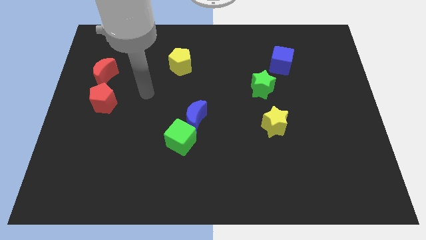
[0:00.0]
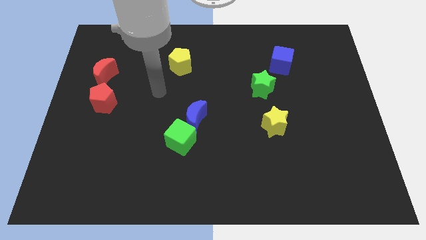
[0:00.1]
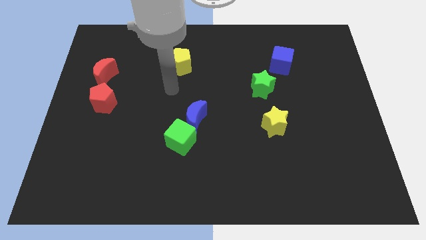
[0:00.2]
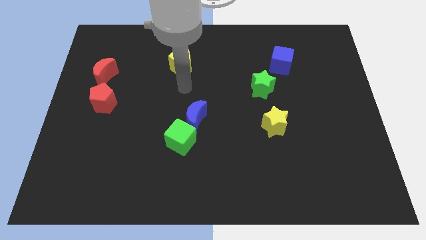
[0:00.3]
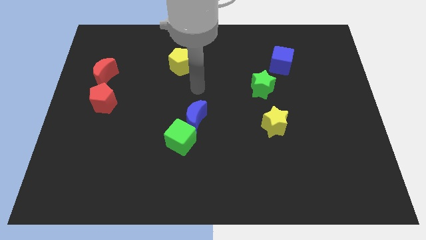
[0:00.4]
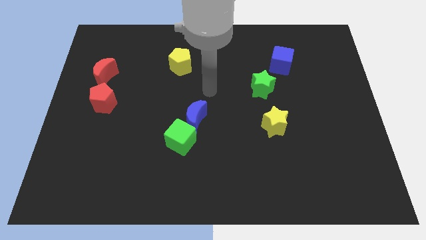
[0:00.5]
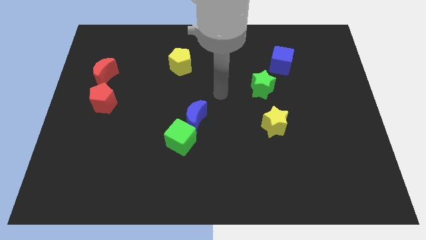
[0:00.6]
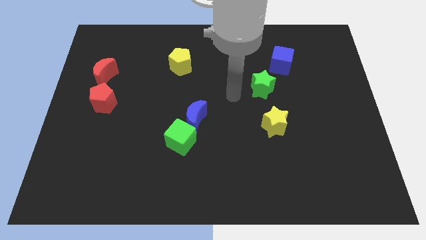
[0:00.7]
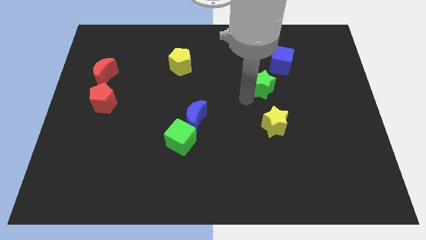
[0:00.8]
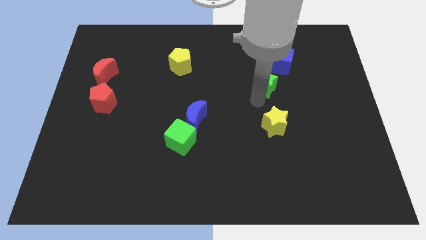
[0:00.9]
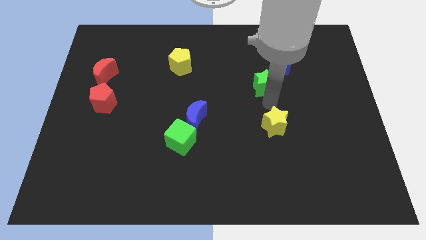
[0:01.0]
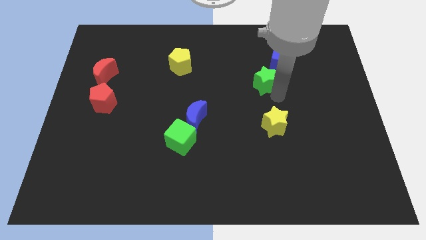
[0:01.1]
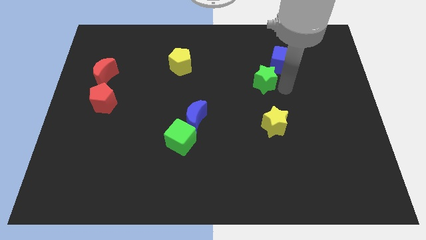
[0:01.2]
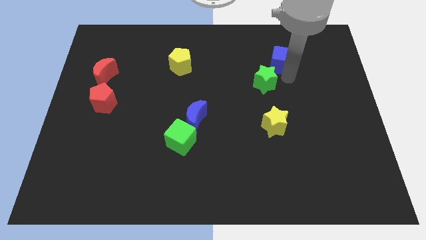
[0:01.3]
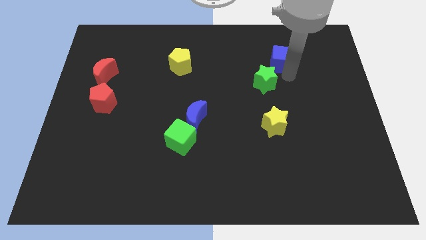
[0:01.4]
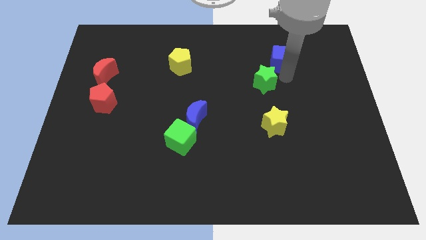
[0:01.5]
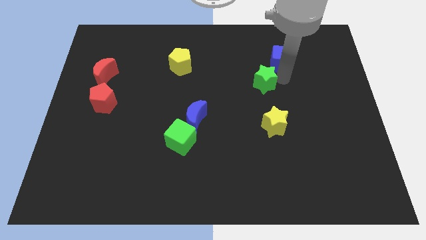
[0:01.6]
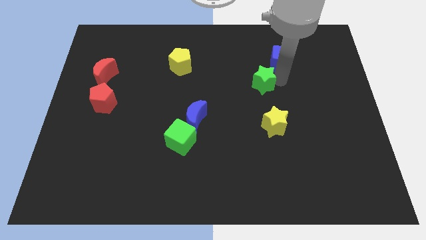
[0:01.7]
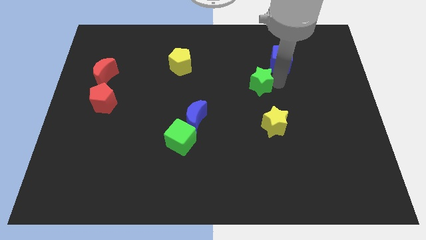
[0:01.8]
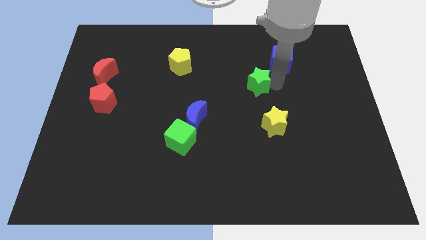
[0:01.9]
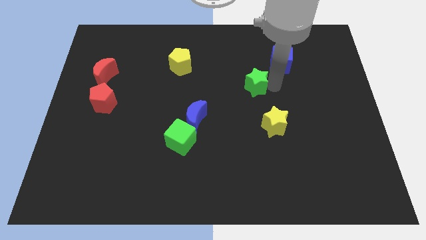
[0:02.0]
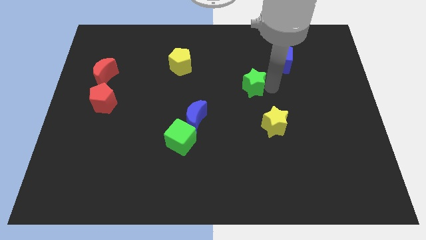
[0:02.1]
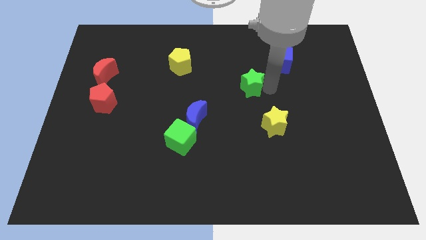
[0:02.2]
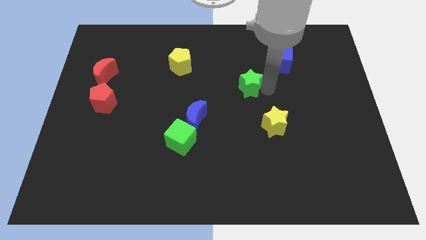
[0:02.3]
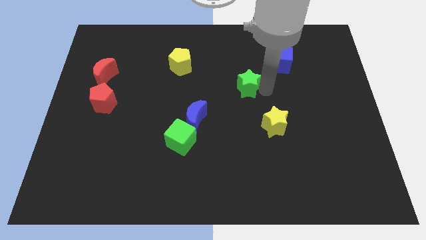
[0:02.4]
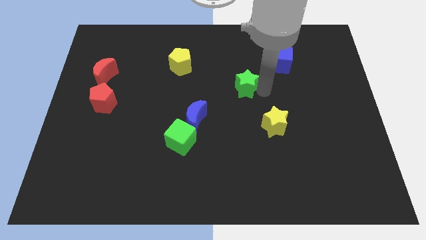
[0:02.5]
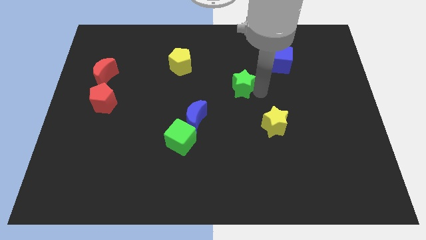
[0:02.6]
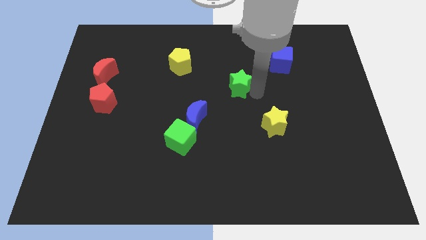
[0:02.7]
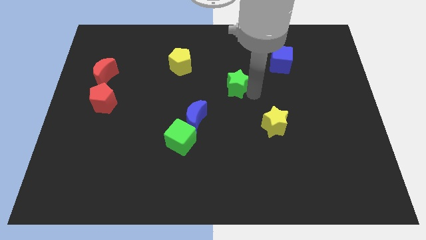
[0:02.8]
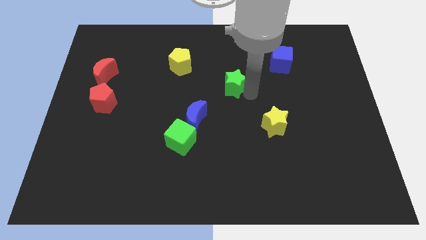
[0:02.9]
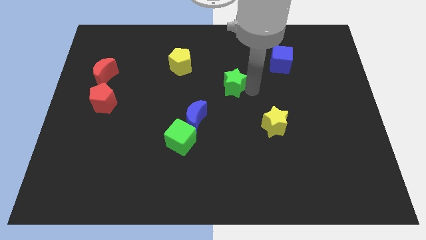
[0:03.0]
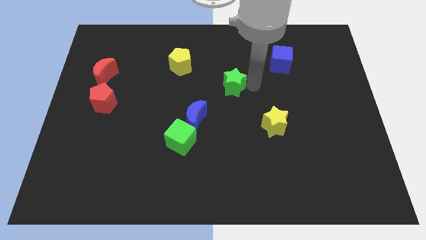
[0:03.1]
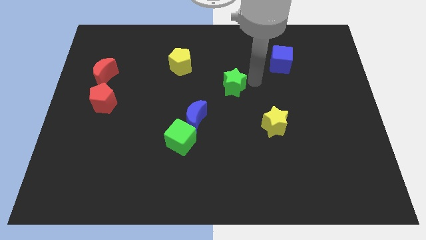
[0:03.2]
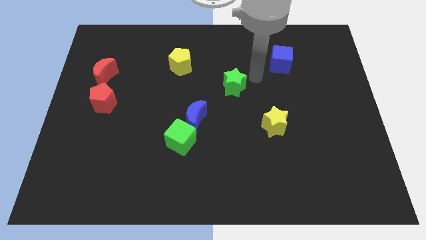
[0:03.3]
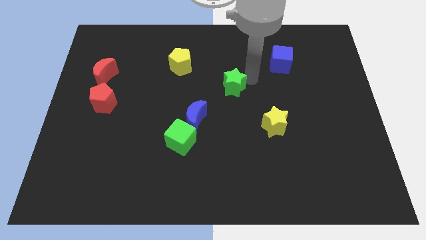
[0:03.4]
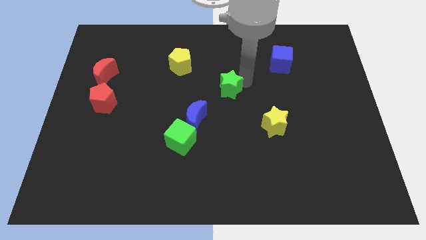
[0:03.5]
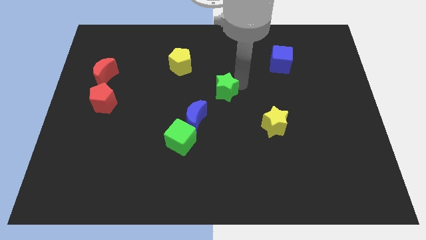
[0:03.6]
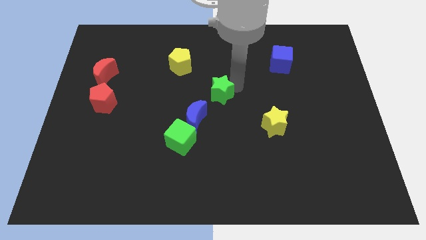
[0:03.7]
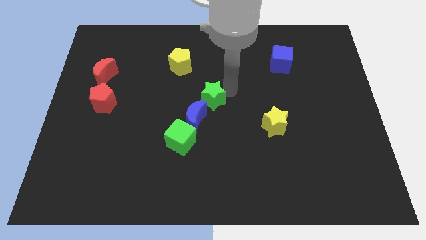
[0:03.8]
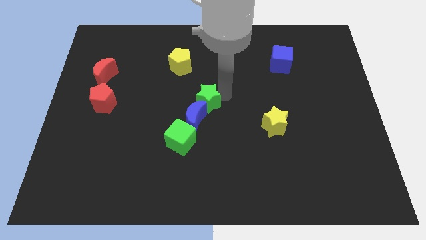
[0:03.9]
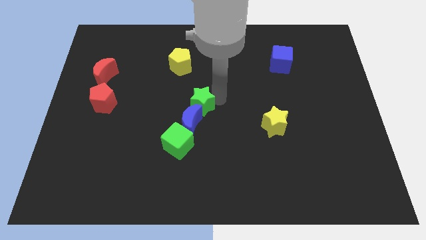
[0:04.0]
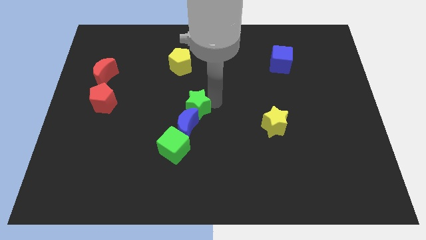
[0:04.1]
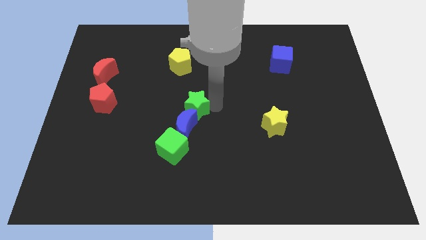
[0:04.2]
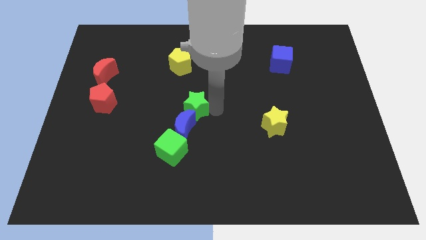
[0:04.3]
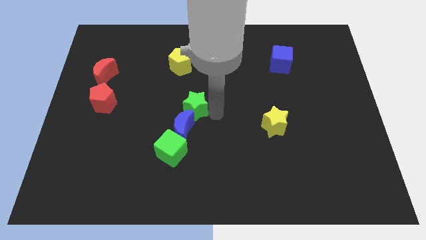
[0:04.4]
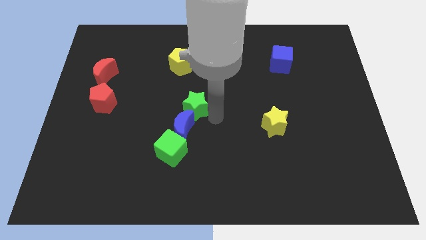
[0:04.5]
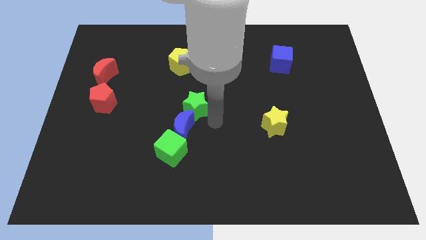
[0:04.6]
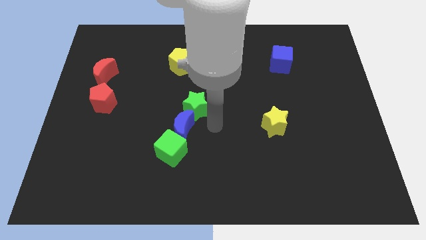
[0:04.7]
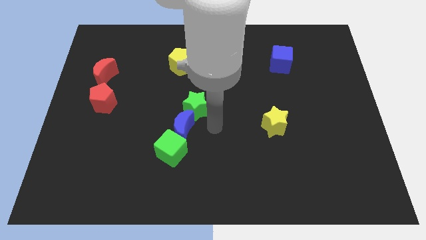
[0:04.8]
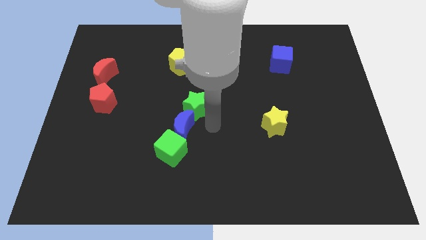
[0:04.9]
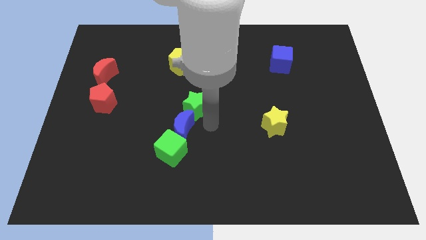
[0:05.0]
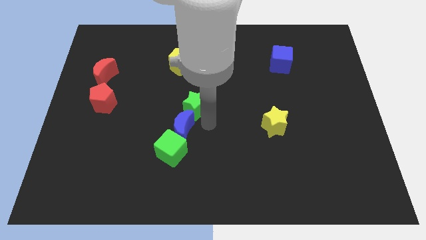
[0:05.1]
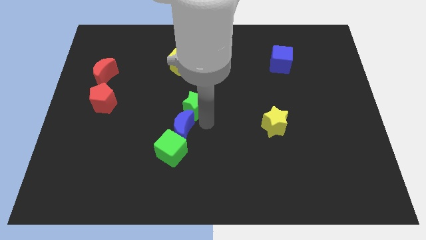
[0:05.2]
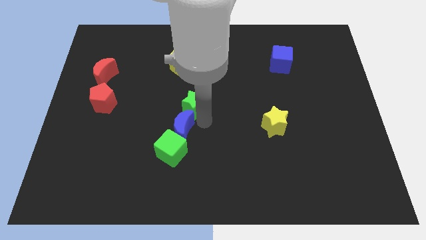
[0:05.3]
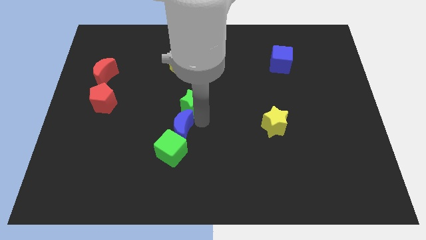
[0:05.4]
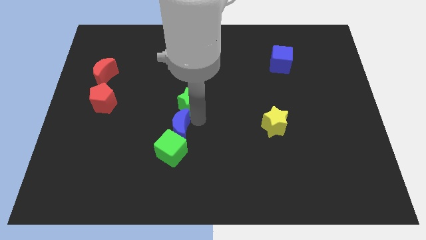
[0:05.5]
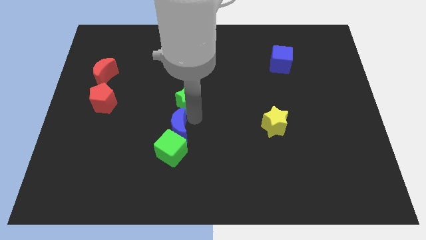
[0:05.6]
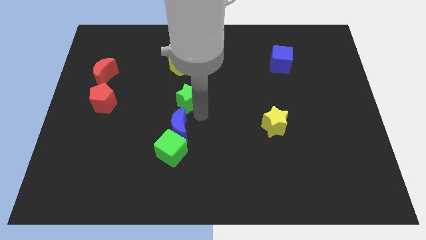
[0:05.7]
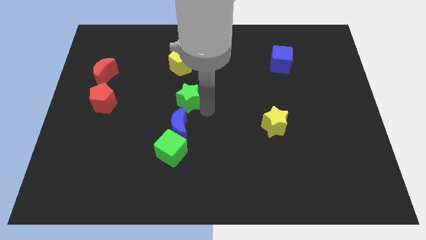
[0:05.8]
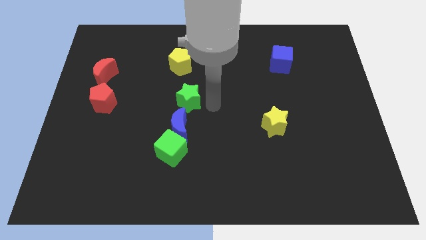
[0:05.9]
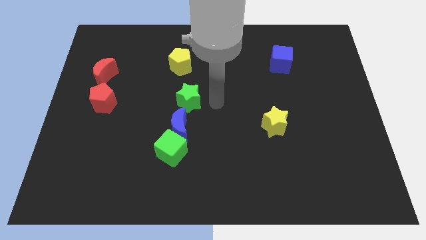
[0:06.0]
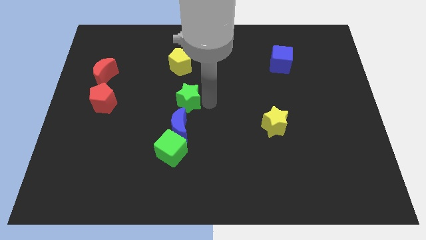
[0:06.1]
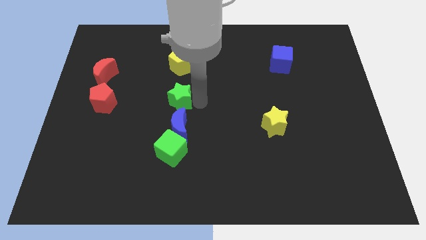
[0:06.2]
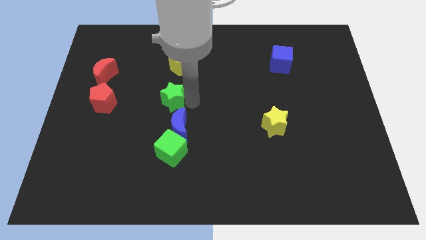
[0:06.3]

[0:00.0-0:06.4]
push the green star left

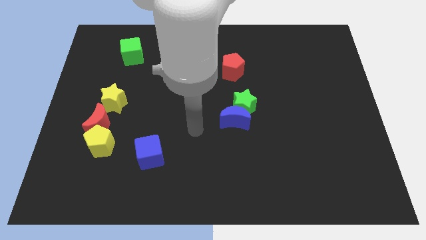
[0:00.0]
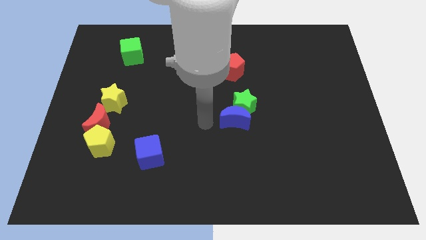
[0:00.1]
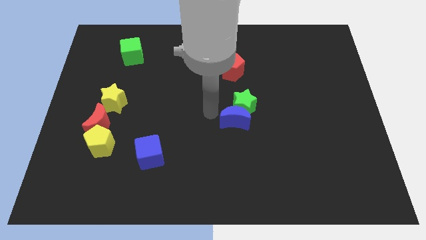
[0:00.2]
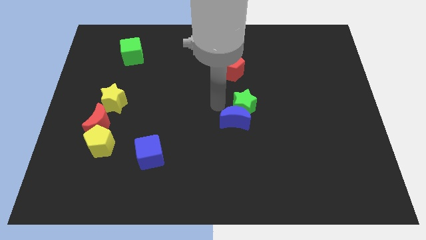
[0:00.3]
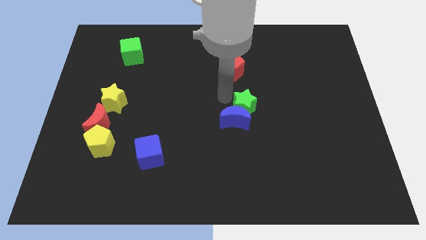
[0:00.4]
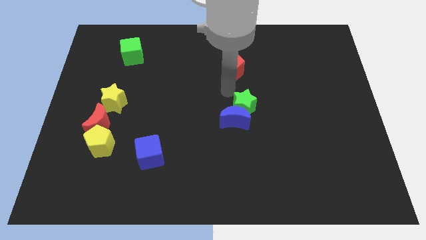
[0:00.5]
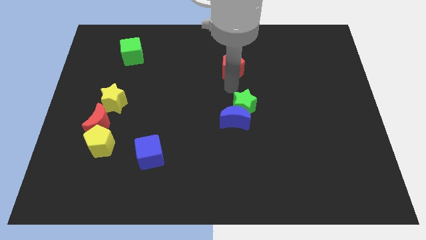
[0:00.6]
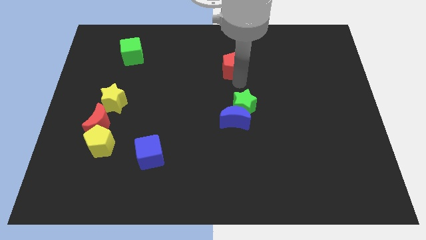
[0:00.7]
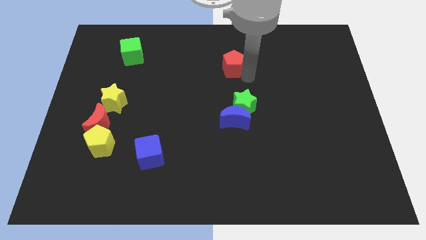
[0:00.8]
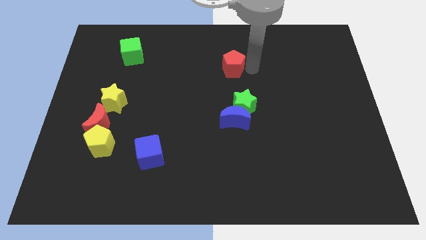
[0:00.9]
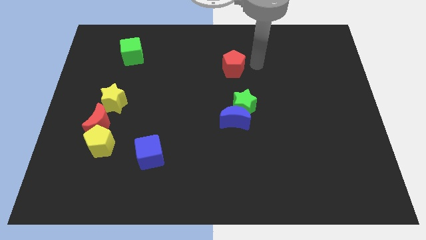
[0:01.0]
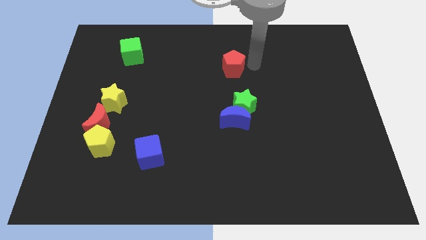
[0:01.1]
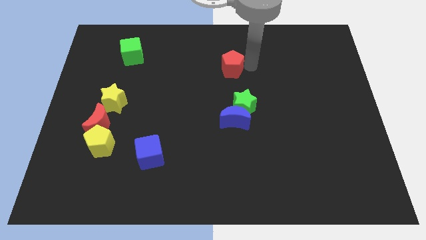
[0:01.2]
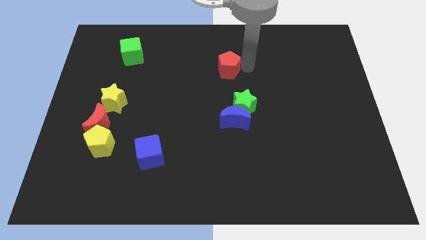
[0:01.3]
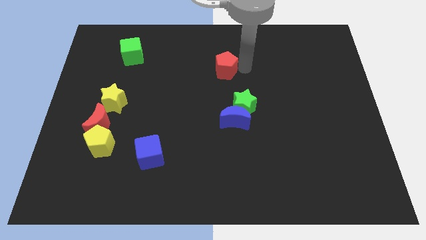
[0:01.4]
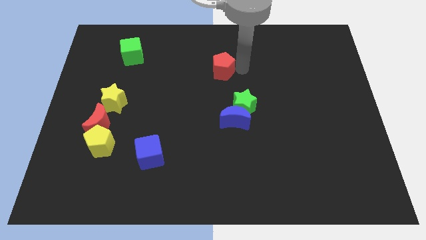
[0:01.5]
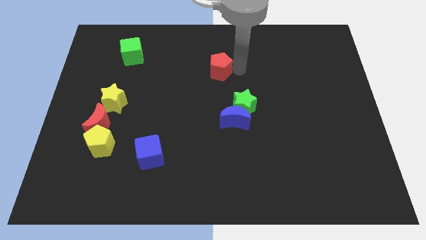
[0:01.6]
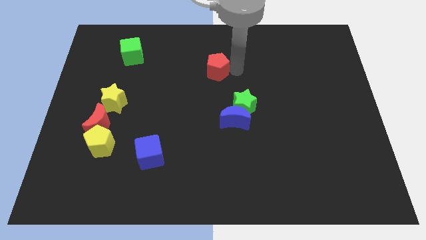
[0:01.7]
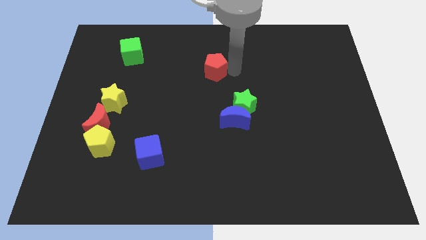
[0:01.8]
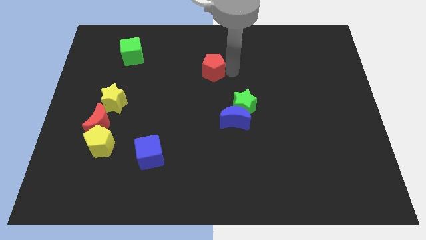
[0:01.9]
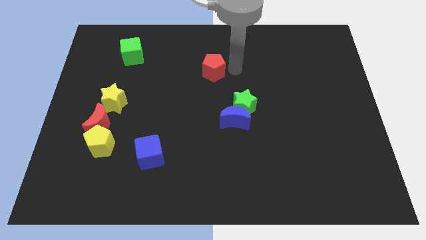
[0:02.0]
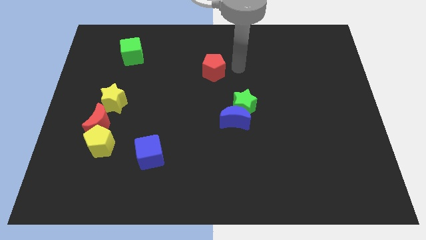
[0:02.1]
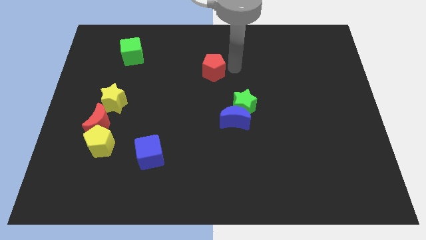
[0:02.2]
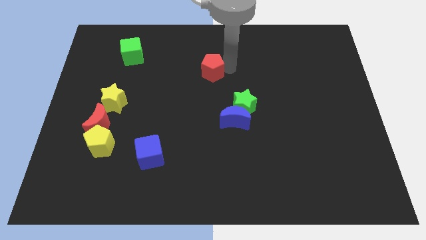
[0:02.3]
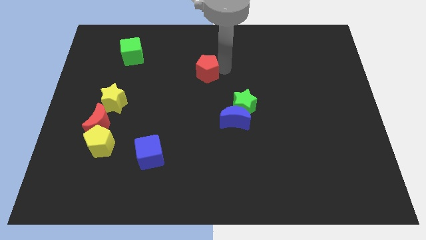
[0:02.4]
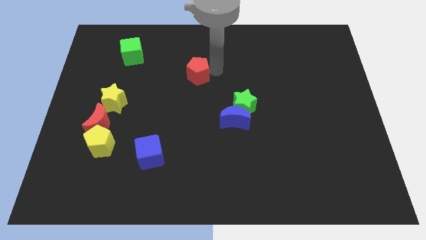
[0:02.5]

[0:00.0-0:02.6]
move the red pentagon a little left
